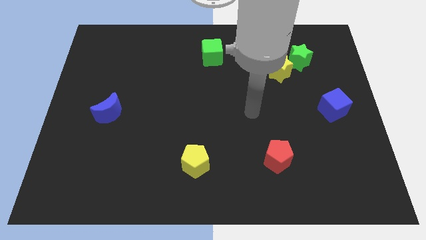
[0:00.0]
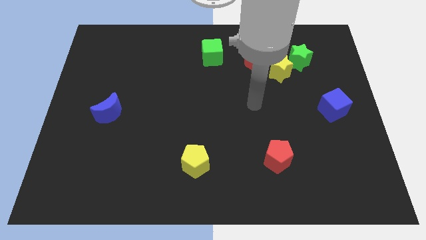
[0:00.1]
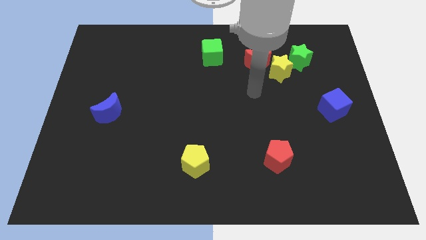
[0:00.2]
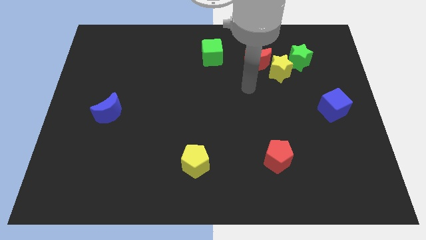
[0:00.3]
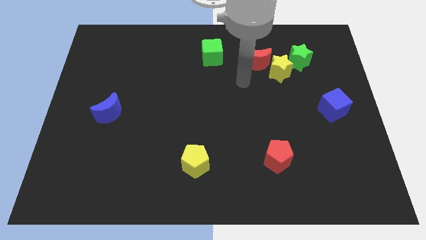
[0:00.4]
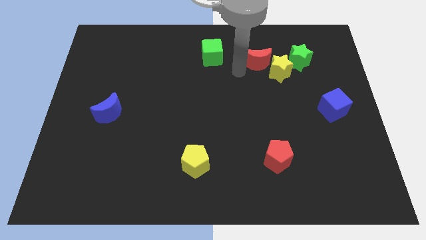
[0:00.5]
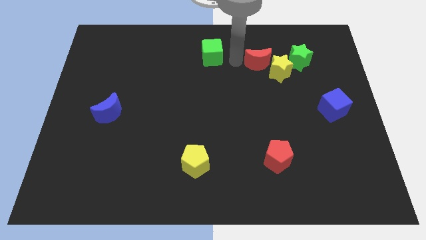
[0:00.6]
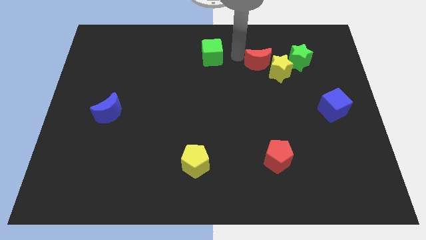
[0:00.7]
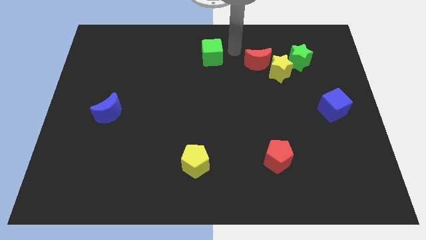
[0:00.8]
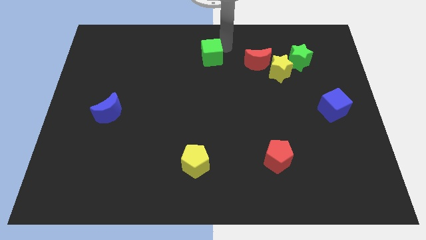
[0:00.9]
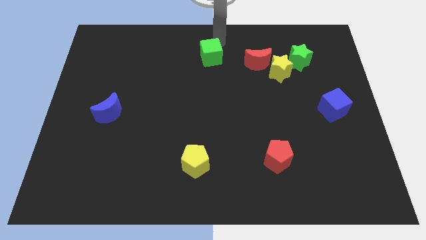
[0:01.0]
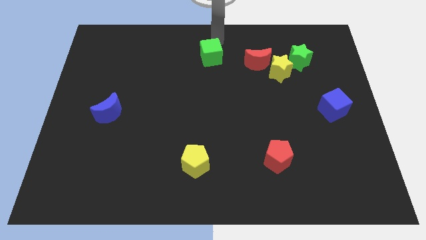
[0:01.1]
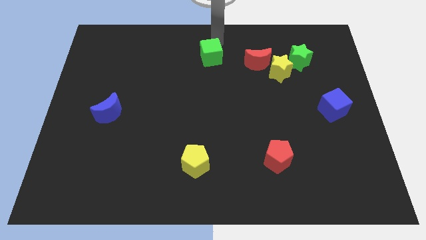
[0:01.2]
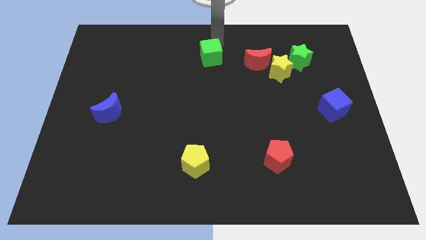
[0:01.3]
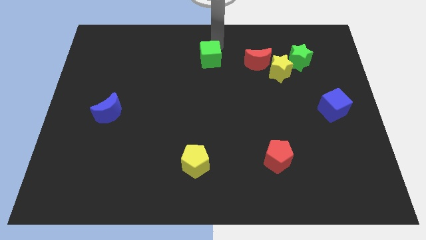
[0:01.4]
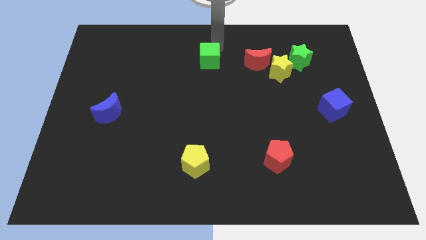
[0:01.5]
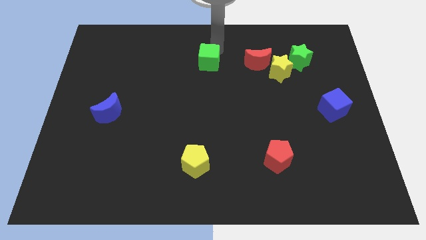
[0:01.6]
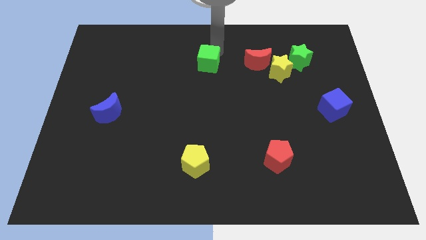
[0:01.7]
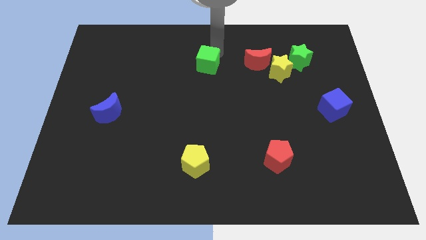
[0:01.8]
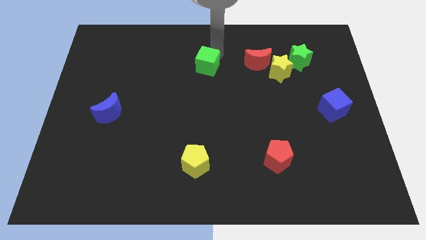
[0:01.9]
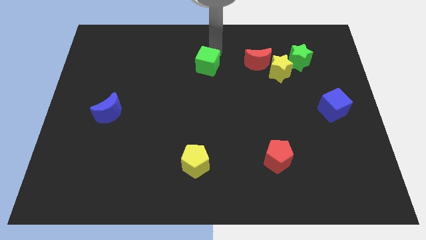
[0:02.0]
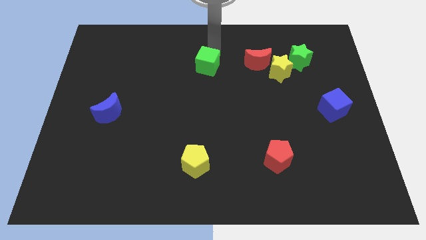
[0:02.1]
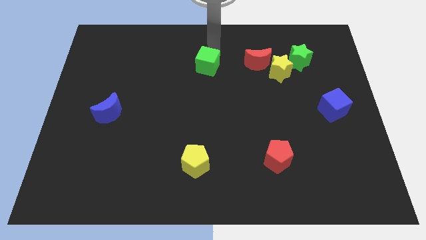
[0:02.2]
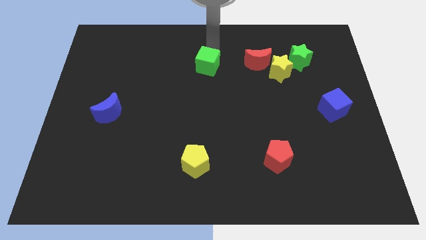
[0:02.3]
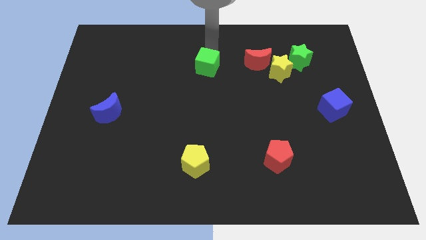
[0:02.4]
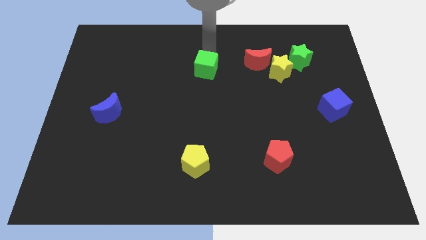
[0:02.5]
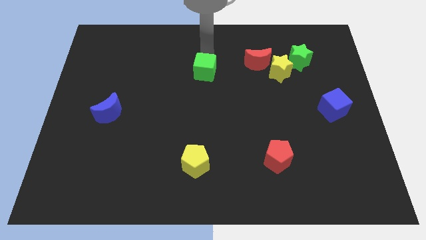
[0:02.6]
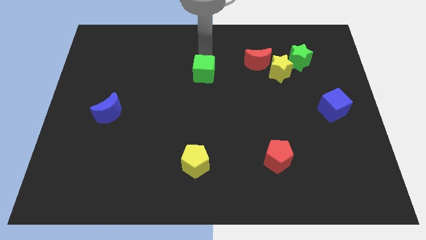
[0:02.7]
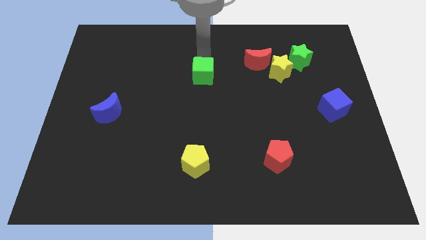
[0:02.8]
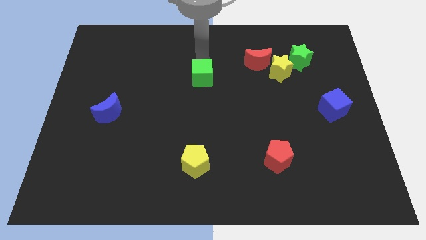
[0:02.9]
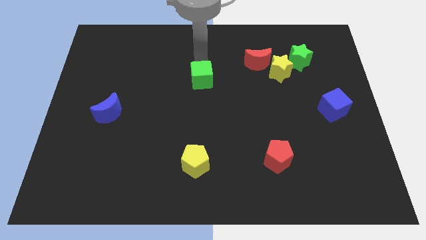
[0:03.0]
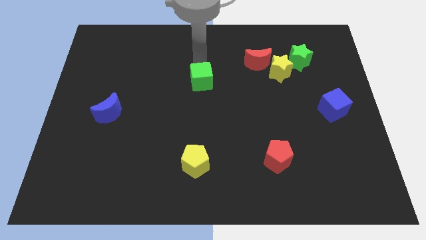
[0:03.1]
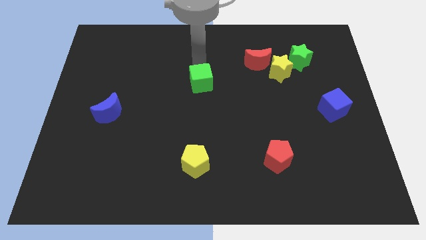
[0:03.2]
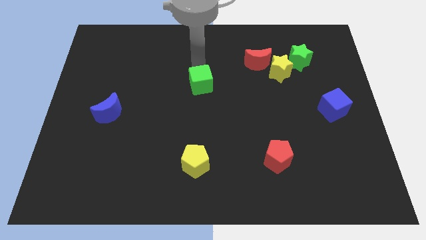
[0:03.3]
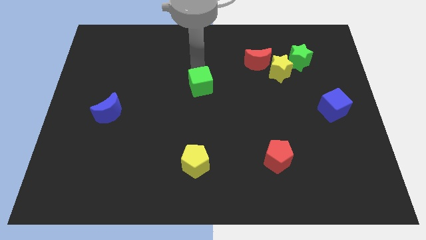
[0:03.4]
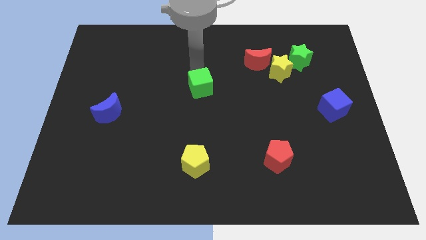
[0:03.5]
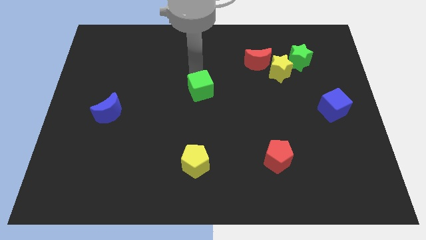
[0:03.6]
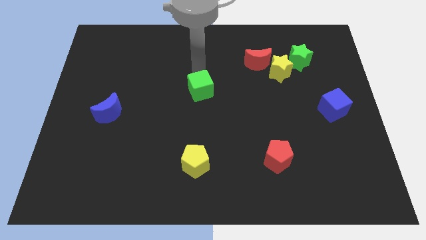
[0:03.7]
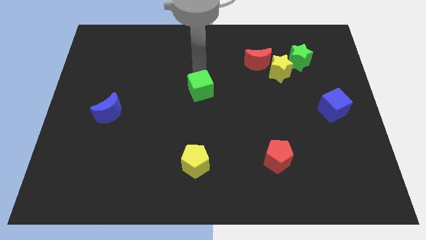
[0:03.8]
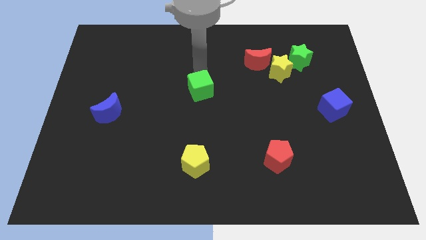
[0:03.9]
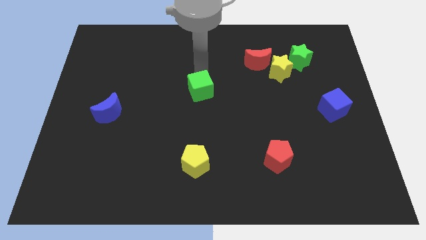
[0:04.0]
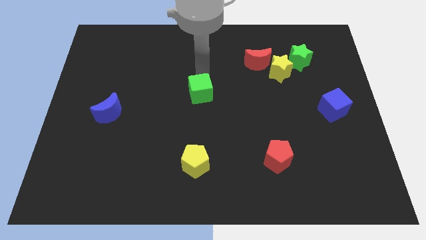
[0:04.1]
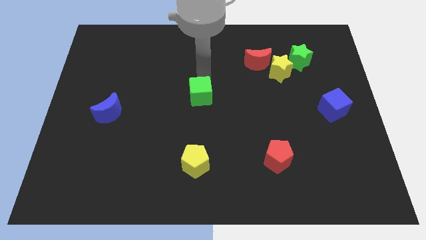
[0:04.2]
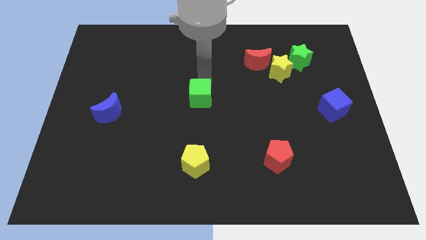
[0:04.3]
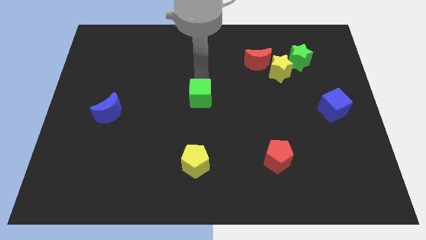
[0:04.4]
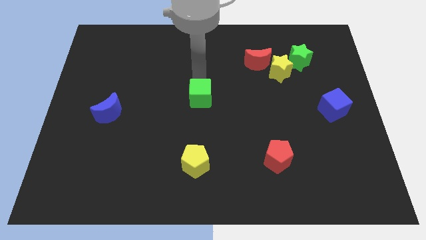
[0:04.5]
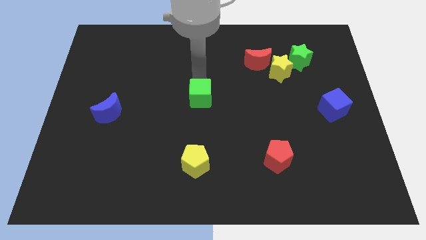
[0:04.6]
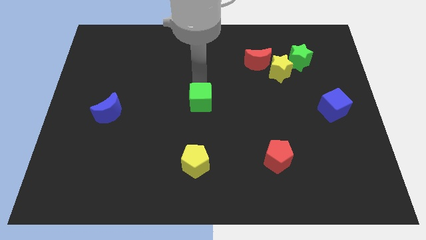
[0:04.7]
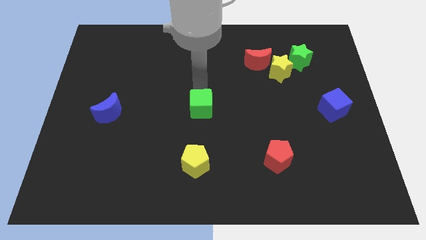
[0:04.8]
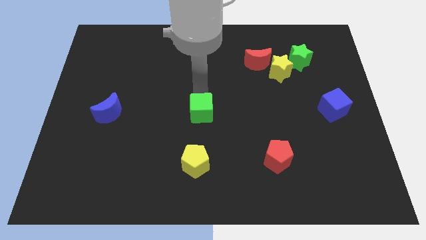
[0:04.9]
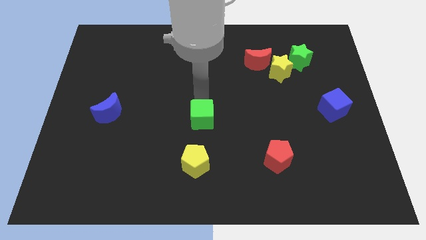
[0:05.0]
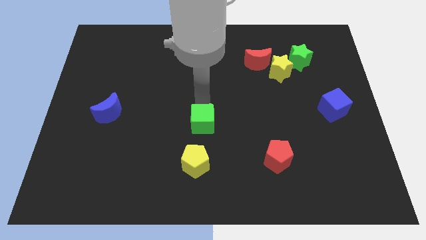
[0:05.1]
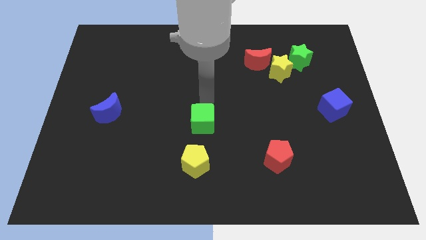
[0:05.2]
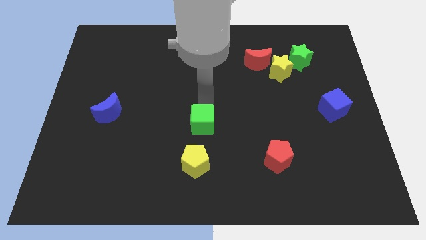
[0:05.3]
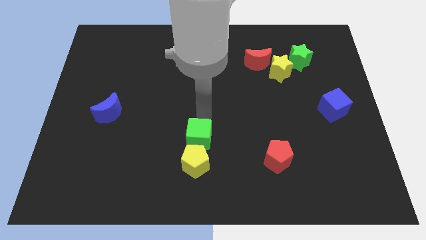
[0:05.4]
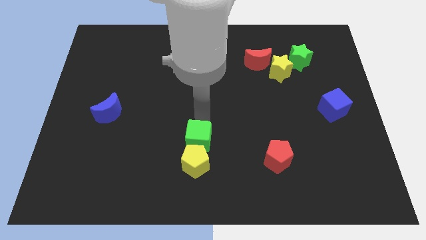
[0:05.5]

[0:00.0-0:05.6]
push the green cube next to the yellow pentagon

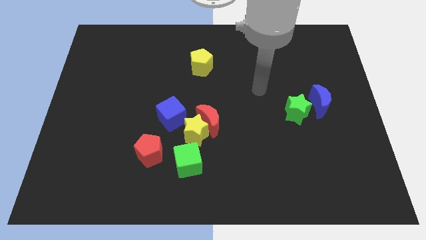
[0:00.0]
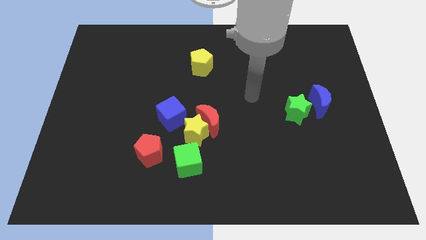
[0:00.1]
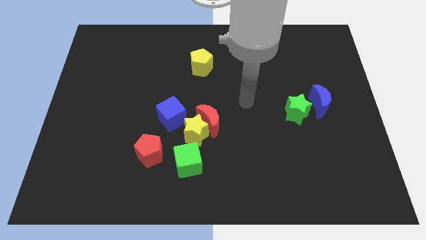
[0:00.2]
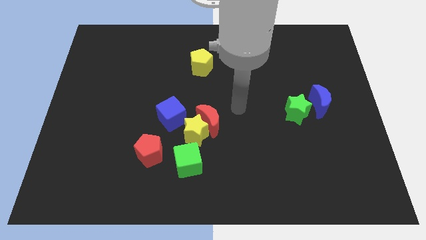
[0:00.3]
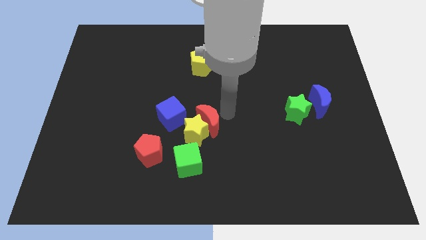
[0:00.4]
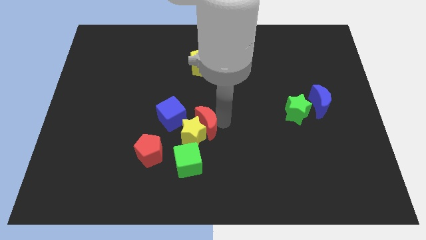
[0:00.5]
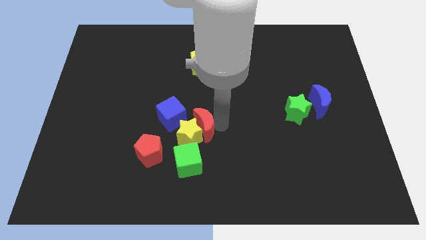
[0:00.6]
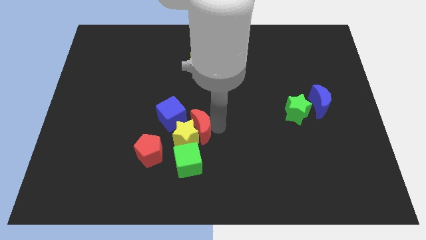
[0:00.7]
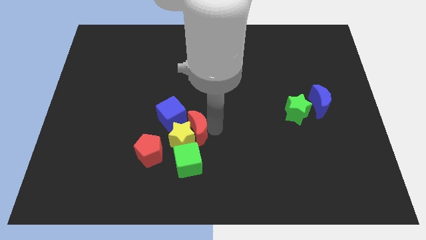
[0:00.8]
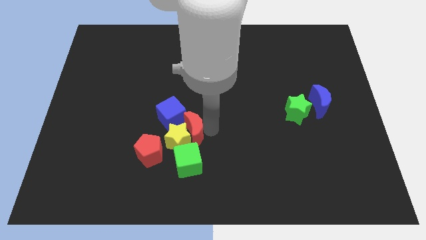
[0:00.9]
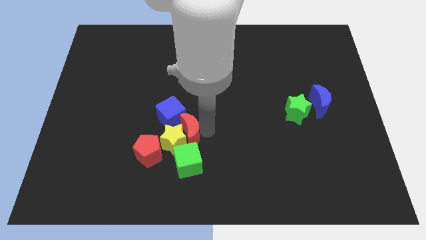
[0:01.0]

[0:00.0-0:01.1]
put the yellow star to the red pentagon
